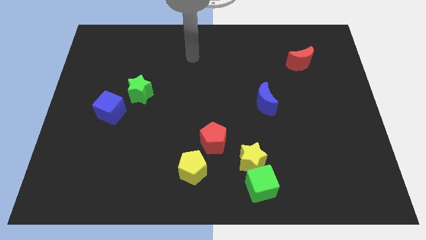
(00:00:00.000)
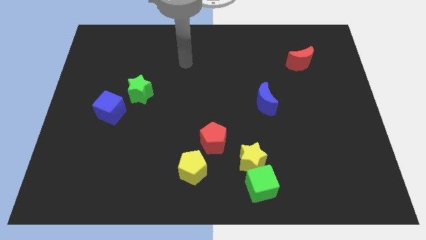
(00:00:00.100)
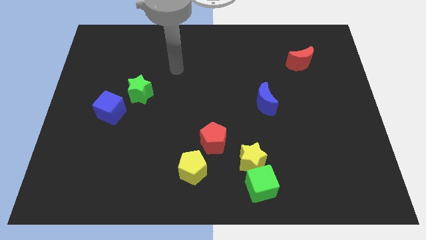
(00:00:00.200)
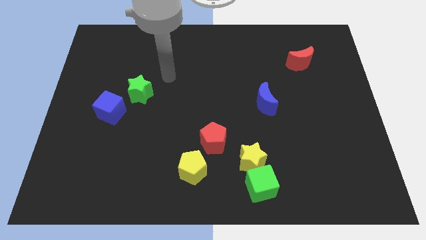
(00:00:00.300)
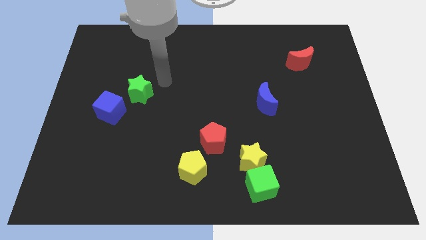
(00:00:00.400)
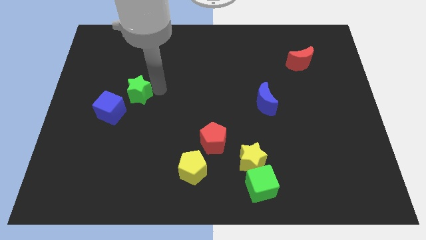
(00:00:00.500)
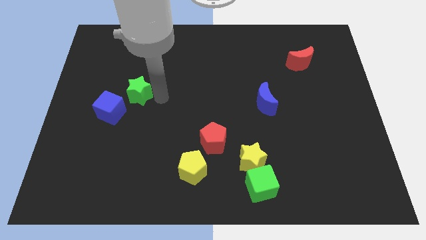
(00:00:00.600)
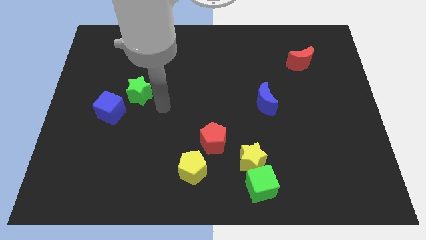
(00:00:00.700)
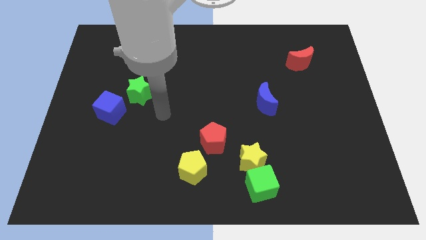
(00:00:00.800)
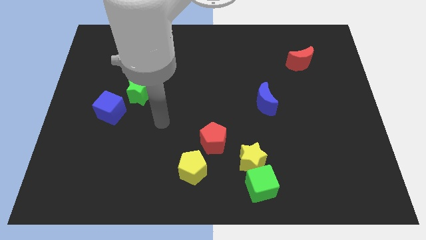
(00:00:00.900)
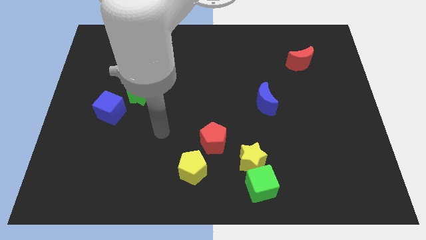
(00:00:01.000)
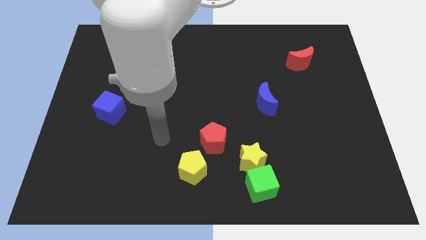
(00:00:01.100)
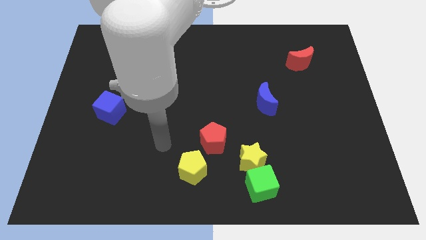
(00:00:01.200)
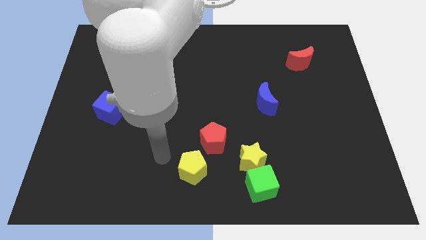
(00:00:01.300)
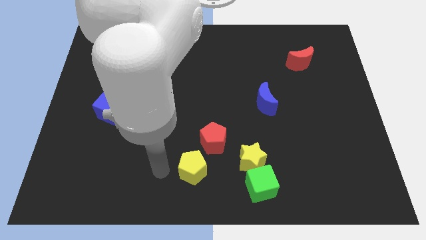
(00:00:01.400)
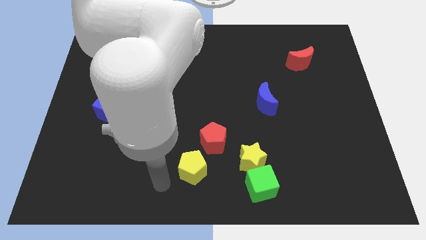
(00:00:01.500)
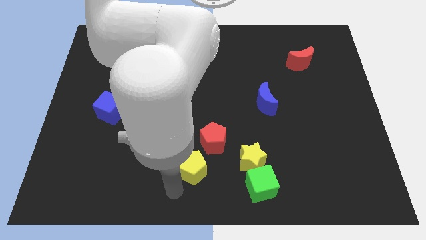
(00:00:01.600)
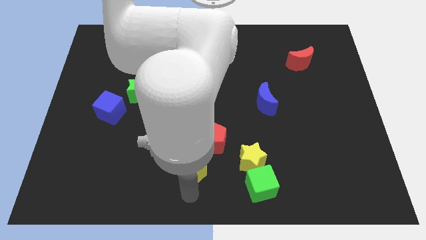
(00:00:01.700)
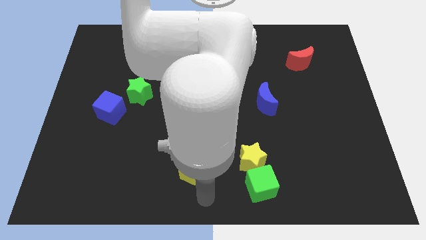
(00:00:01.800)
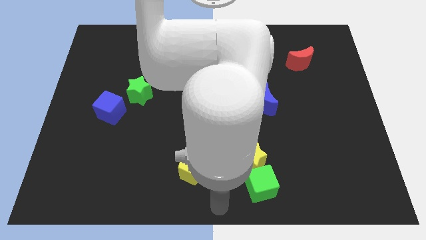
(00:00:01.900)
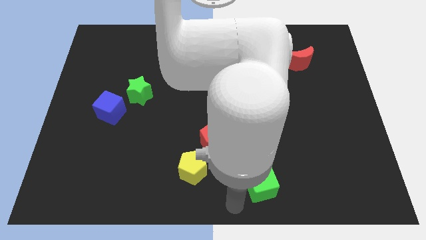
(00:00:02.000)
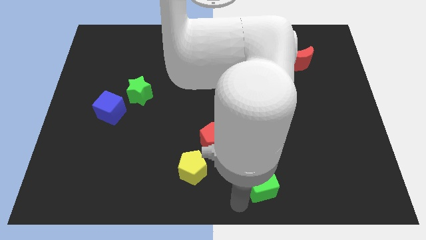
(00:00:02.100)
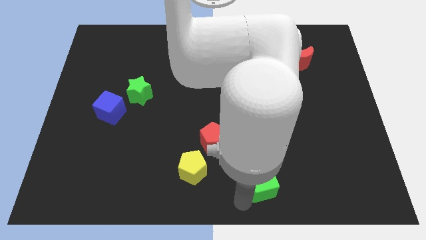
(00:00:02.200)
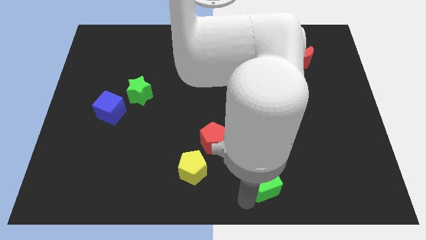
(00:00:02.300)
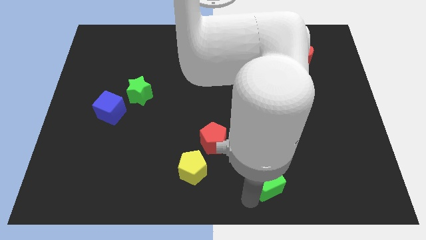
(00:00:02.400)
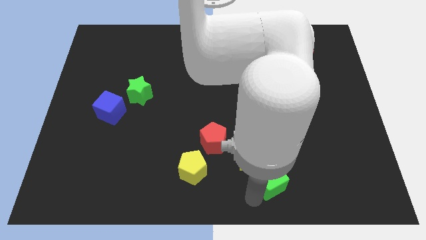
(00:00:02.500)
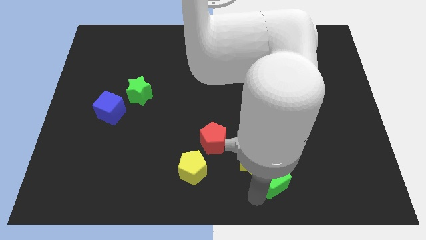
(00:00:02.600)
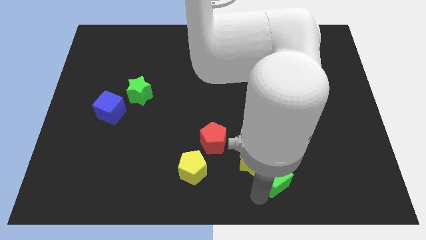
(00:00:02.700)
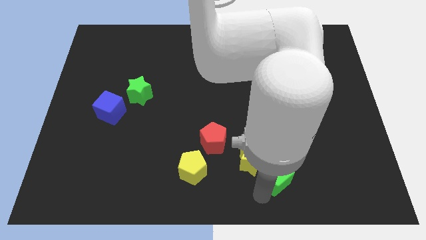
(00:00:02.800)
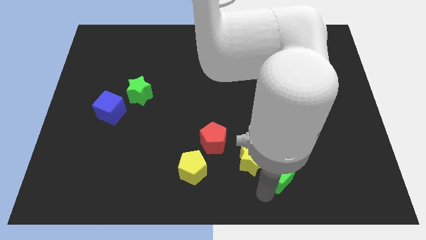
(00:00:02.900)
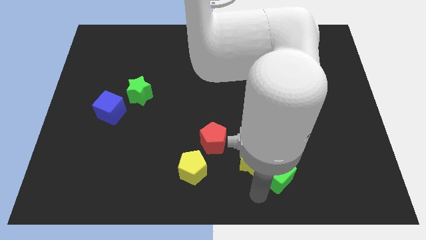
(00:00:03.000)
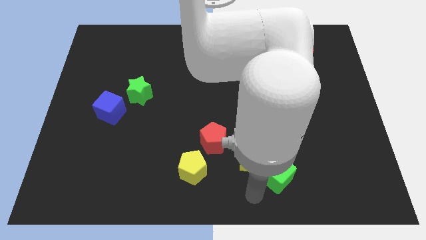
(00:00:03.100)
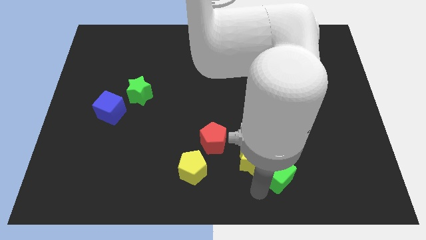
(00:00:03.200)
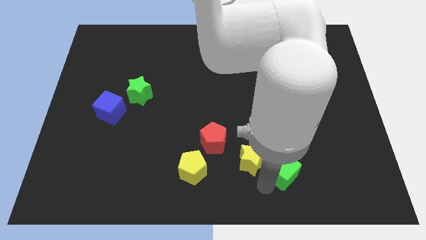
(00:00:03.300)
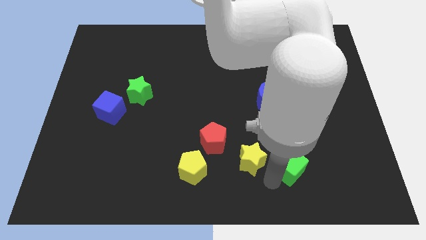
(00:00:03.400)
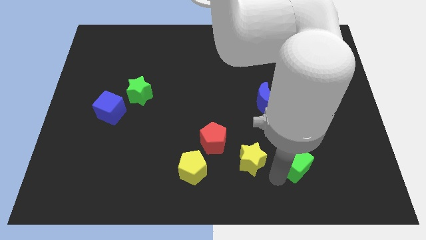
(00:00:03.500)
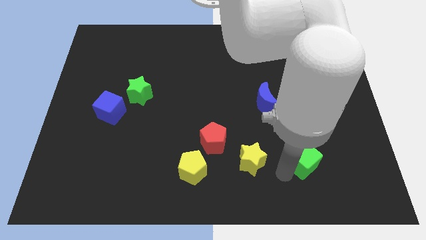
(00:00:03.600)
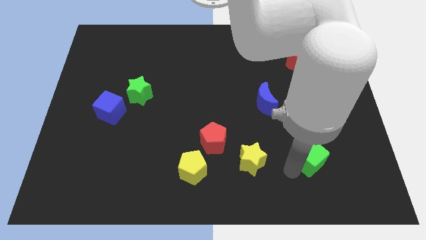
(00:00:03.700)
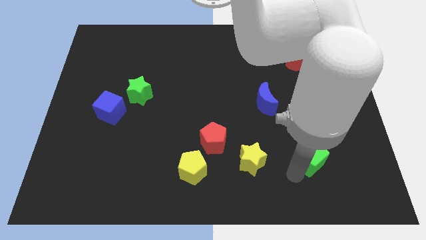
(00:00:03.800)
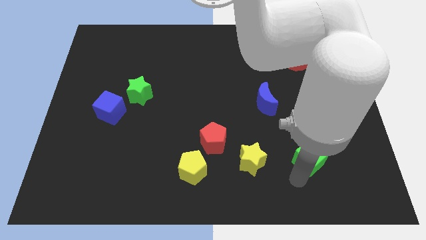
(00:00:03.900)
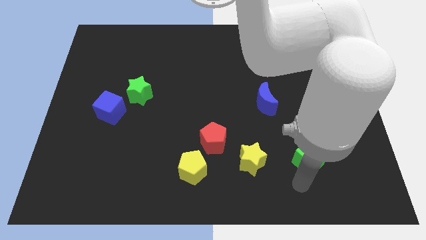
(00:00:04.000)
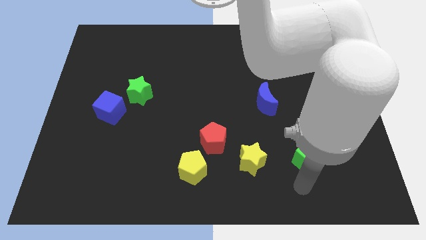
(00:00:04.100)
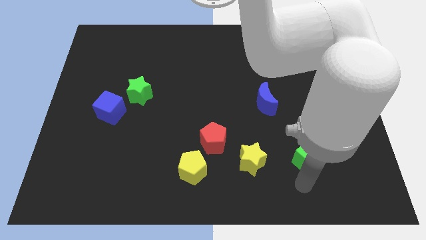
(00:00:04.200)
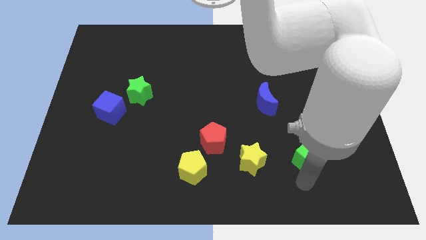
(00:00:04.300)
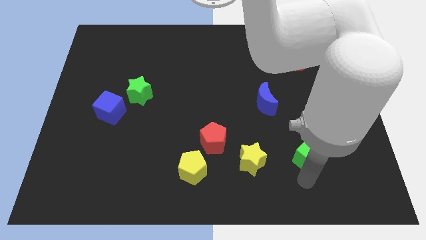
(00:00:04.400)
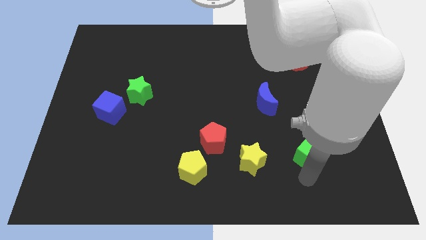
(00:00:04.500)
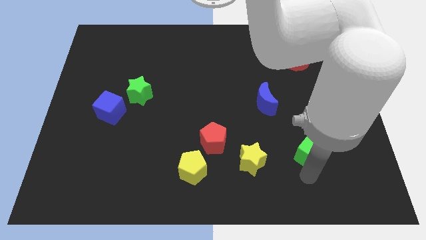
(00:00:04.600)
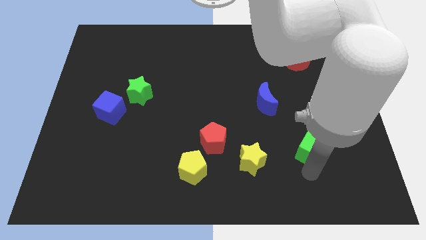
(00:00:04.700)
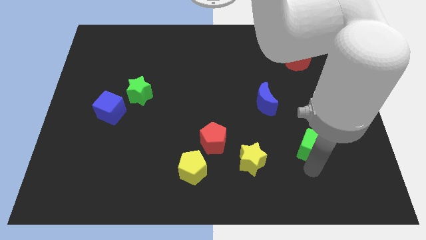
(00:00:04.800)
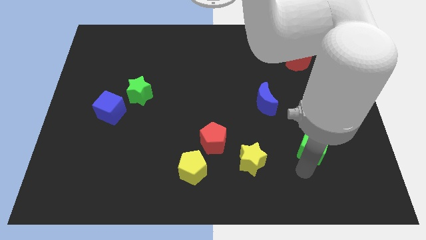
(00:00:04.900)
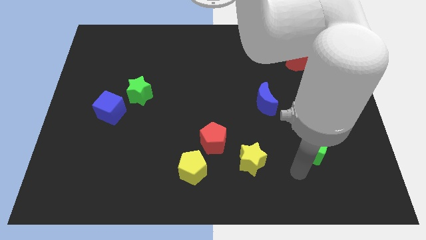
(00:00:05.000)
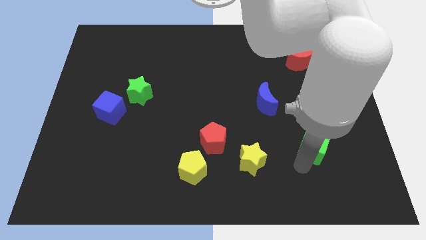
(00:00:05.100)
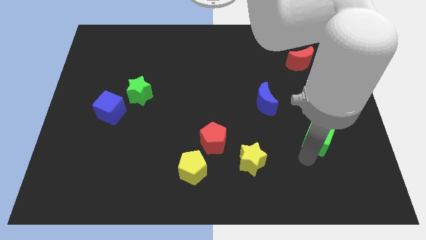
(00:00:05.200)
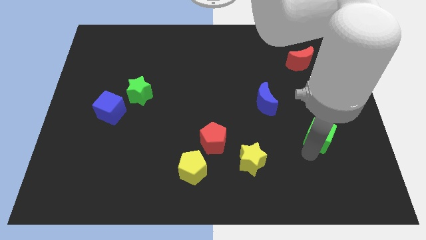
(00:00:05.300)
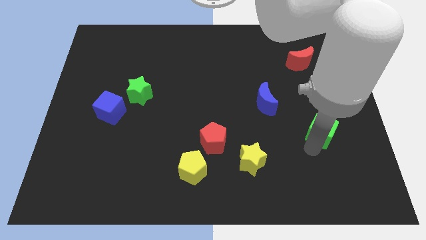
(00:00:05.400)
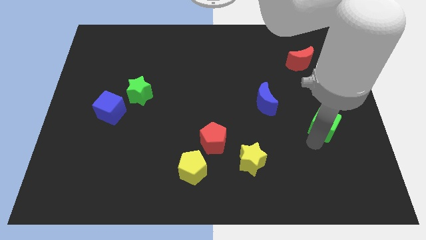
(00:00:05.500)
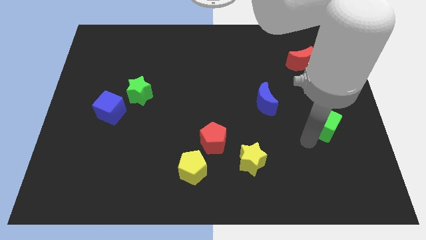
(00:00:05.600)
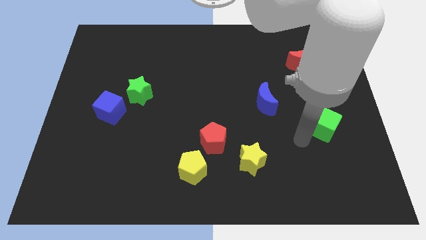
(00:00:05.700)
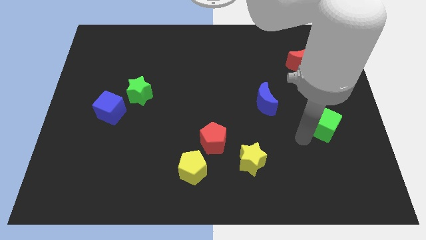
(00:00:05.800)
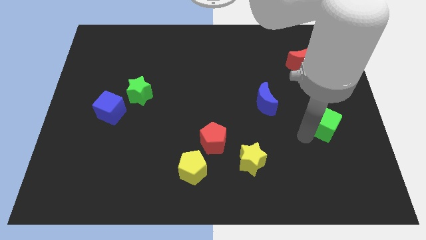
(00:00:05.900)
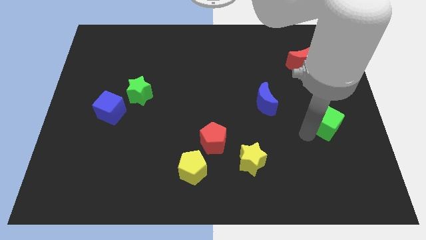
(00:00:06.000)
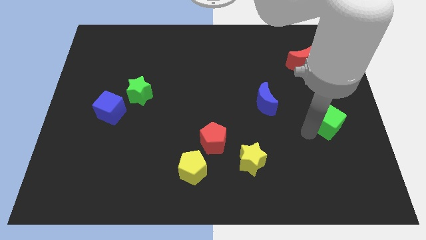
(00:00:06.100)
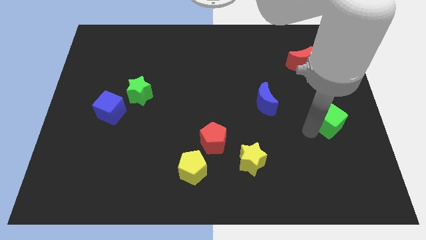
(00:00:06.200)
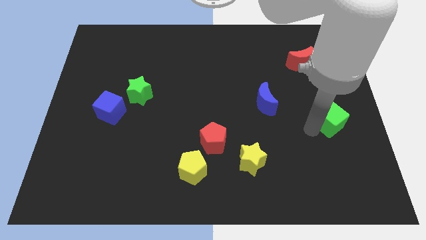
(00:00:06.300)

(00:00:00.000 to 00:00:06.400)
put the green cube to the right side of the board
